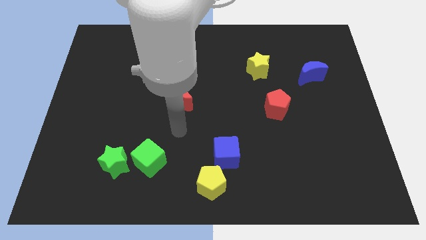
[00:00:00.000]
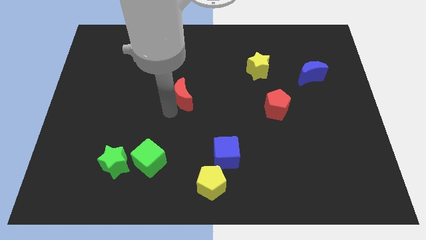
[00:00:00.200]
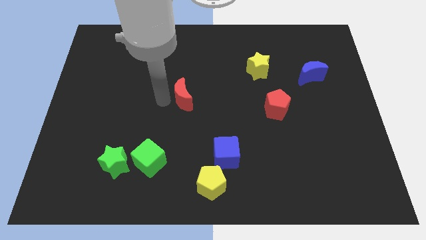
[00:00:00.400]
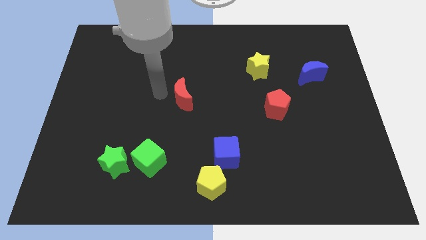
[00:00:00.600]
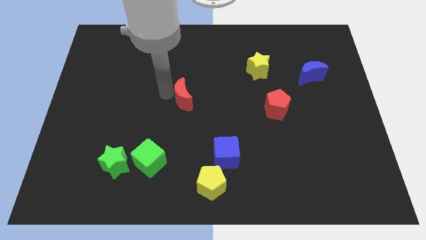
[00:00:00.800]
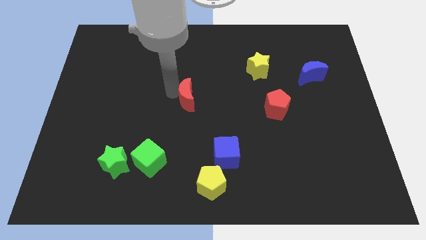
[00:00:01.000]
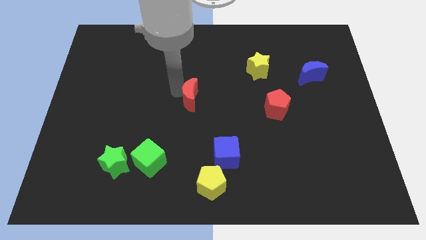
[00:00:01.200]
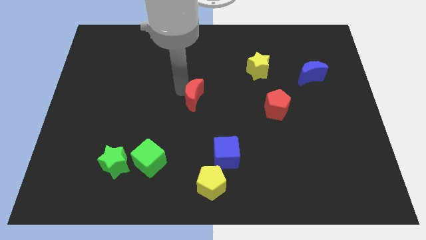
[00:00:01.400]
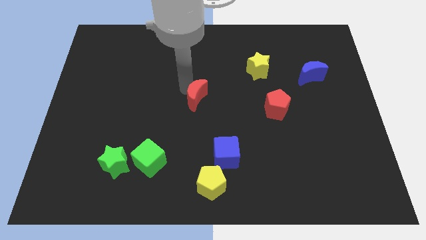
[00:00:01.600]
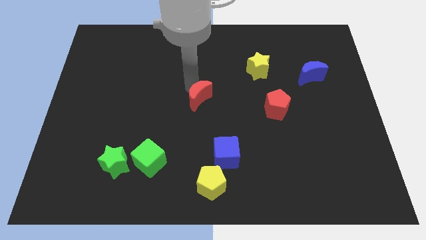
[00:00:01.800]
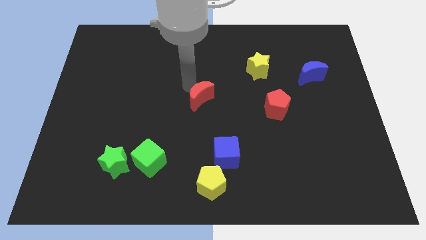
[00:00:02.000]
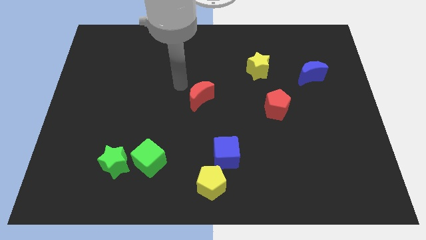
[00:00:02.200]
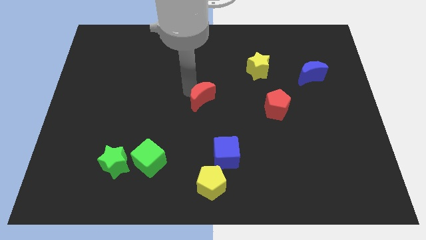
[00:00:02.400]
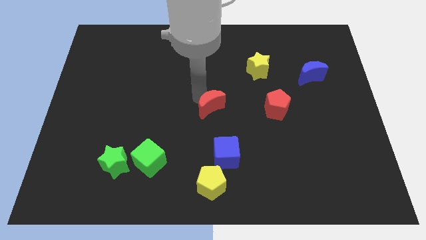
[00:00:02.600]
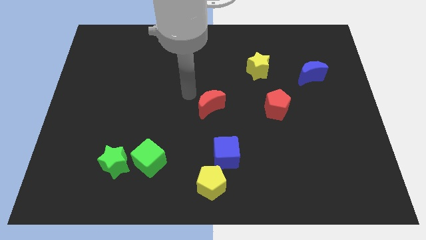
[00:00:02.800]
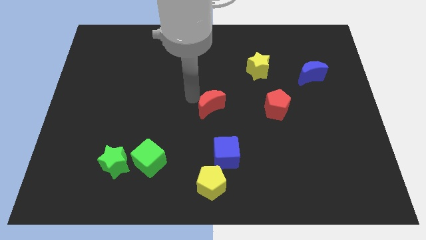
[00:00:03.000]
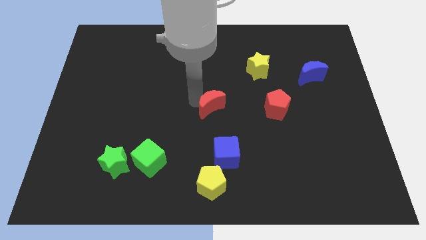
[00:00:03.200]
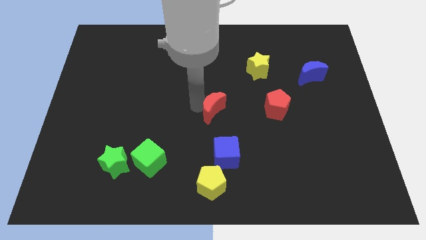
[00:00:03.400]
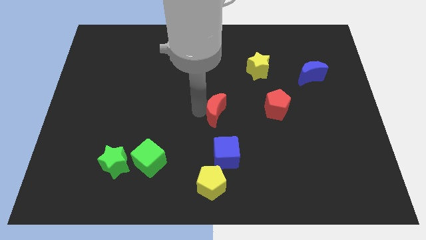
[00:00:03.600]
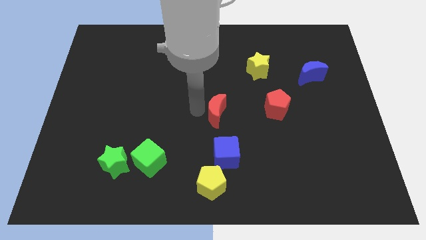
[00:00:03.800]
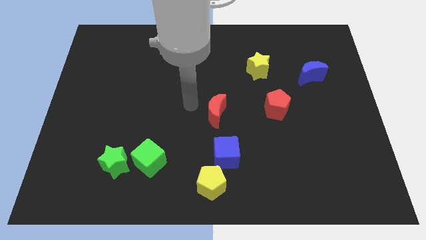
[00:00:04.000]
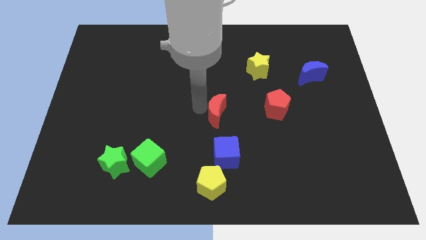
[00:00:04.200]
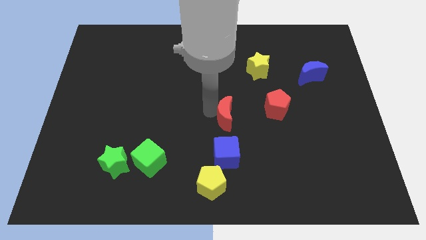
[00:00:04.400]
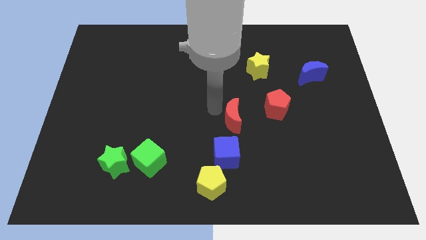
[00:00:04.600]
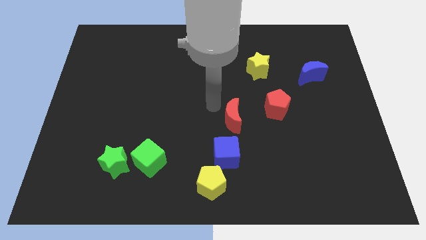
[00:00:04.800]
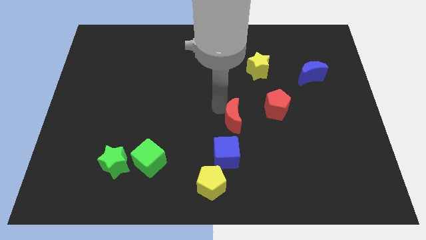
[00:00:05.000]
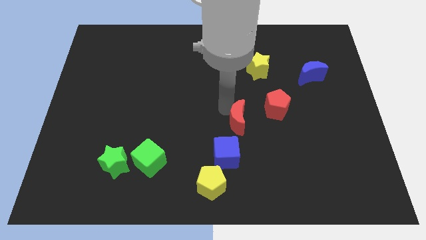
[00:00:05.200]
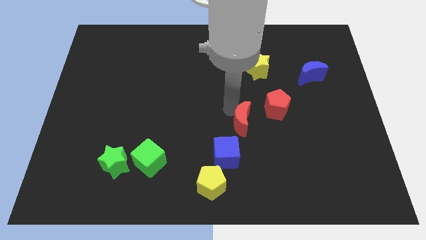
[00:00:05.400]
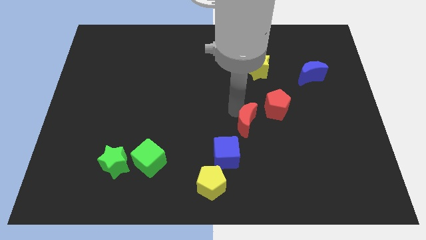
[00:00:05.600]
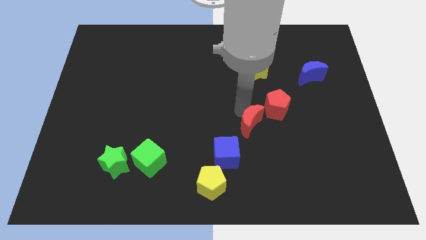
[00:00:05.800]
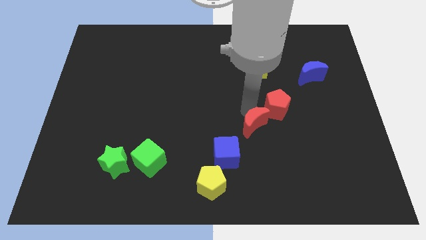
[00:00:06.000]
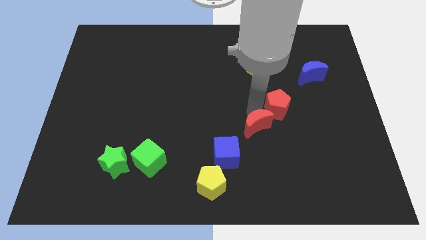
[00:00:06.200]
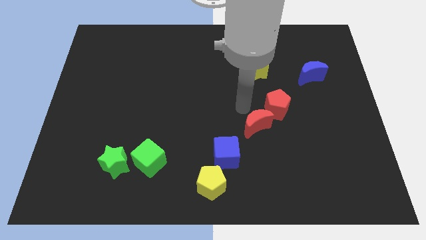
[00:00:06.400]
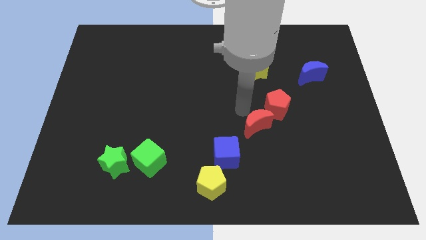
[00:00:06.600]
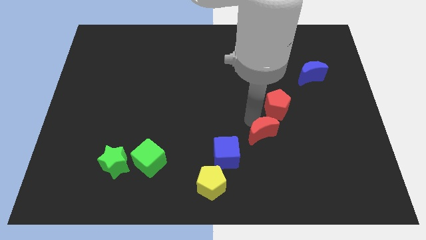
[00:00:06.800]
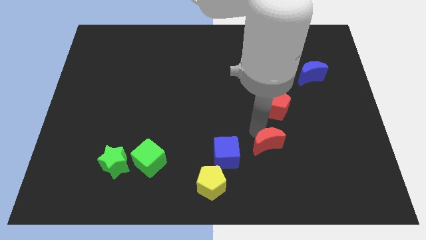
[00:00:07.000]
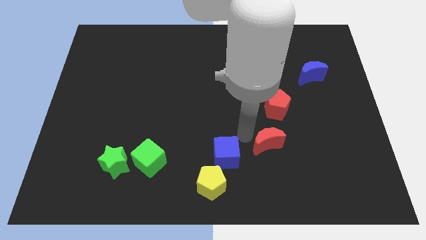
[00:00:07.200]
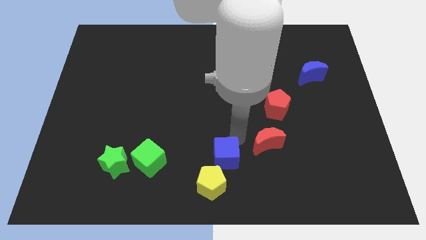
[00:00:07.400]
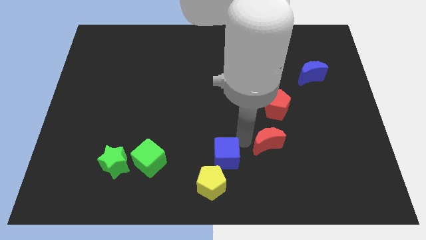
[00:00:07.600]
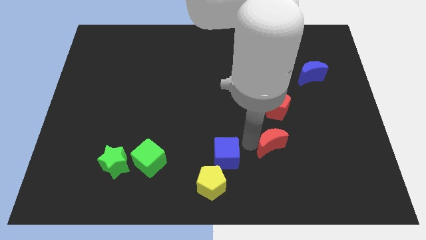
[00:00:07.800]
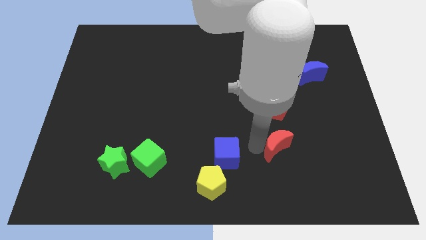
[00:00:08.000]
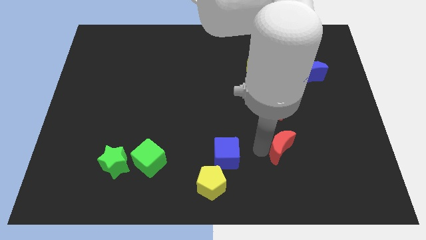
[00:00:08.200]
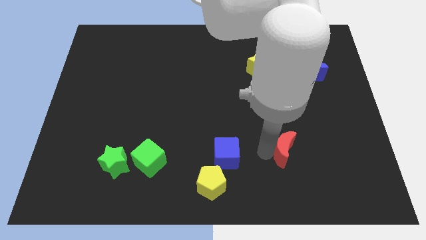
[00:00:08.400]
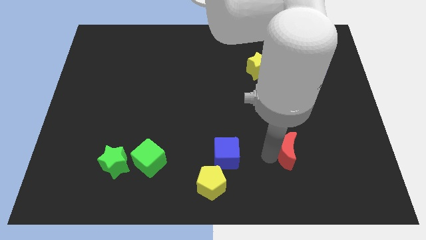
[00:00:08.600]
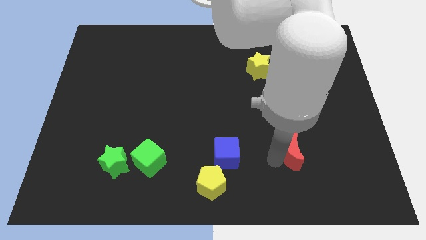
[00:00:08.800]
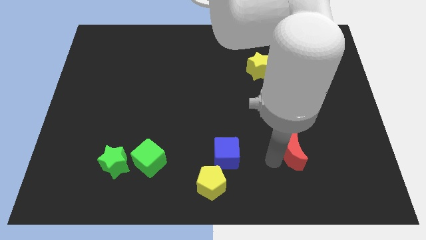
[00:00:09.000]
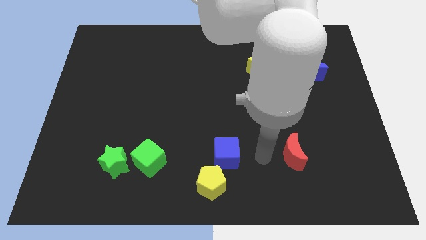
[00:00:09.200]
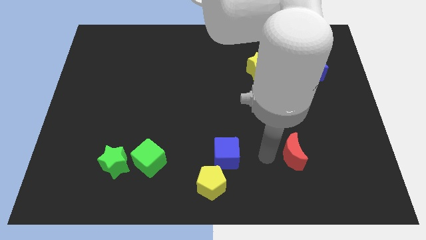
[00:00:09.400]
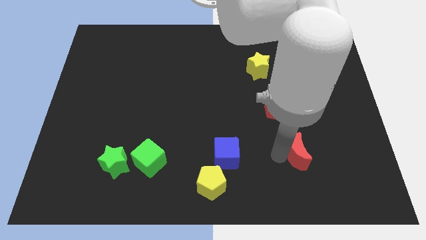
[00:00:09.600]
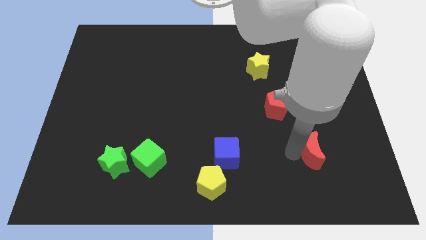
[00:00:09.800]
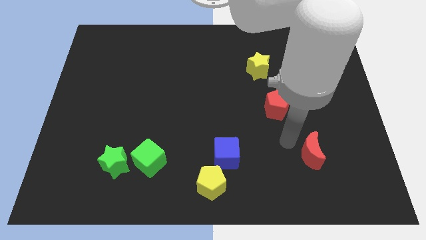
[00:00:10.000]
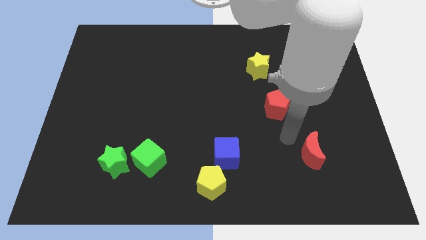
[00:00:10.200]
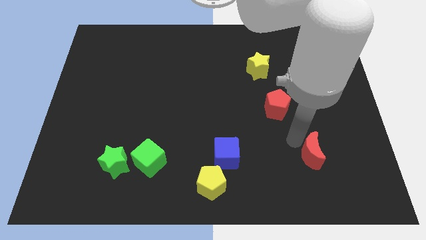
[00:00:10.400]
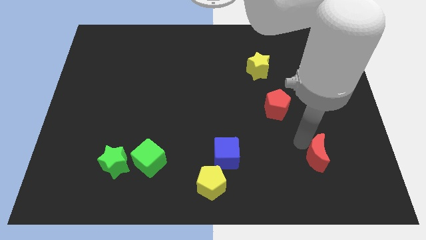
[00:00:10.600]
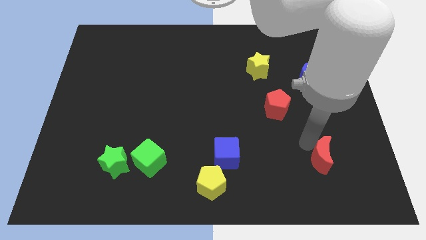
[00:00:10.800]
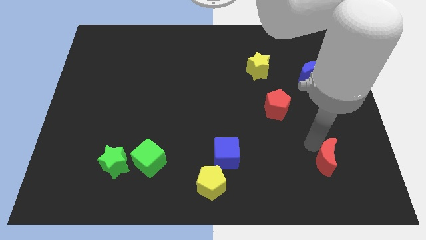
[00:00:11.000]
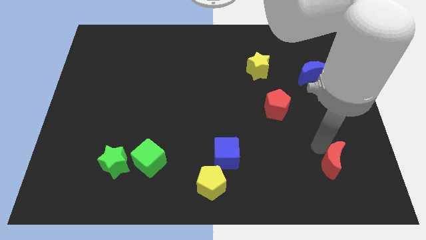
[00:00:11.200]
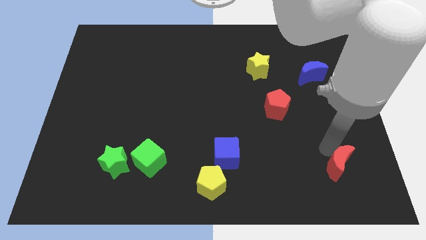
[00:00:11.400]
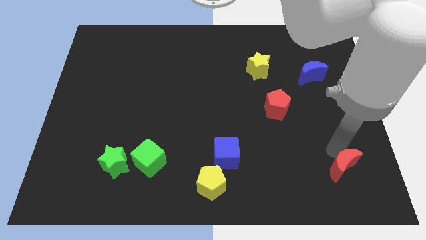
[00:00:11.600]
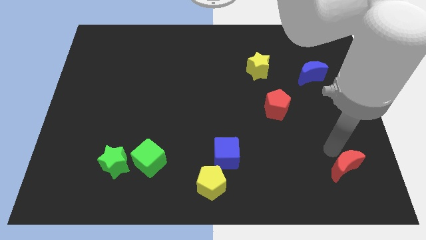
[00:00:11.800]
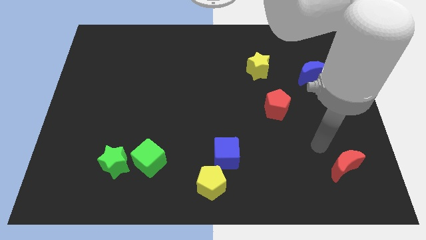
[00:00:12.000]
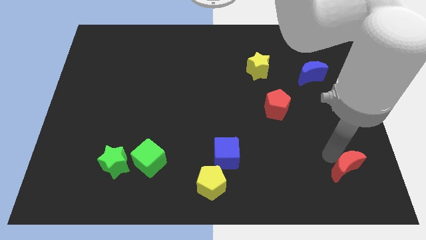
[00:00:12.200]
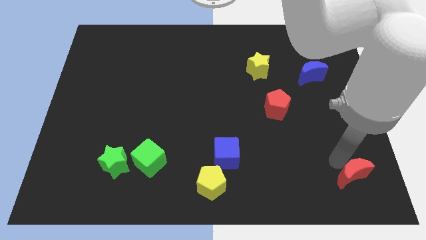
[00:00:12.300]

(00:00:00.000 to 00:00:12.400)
push the red moon to the bottom right corner
